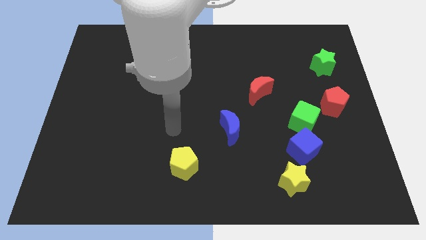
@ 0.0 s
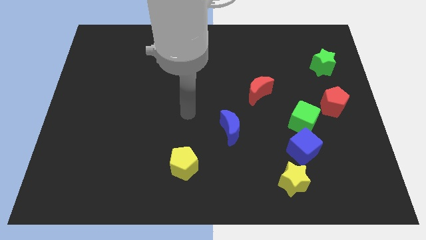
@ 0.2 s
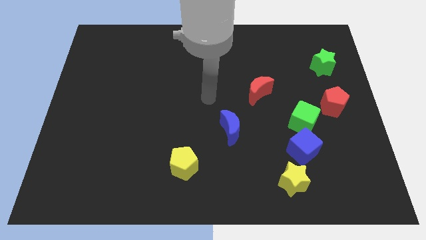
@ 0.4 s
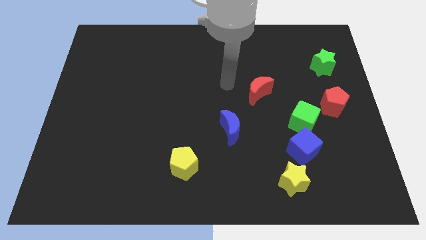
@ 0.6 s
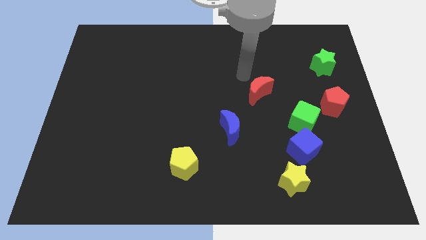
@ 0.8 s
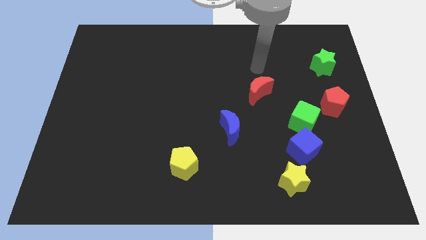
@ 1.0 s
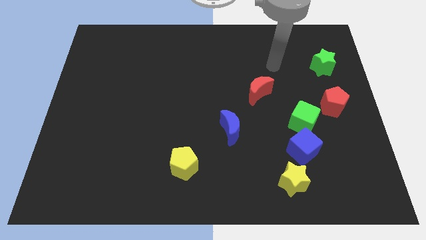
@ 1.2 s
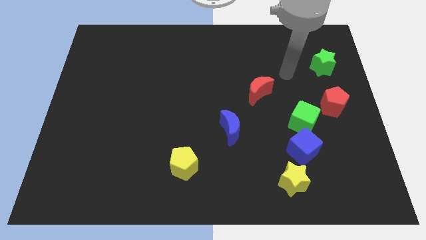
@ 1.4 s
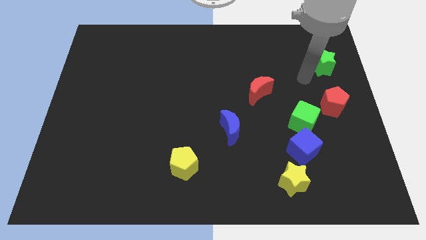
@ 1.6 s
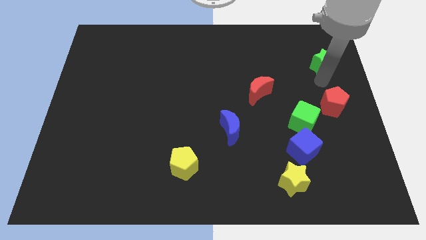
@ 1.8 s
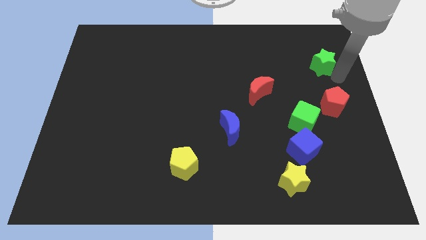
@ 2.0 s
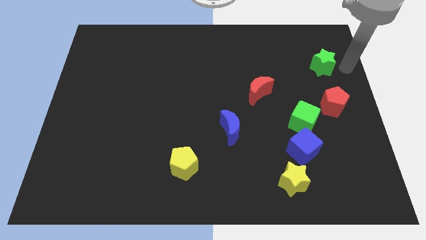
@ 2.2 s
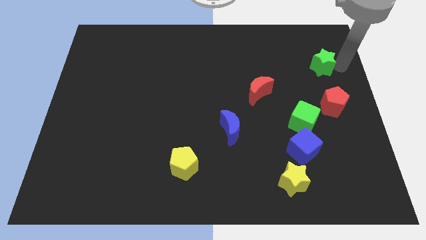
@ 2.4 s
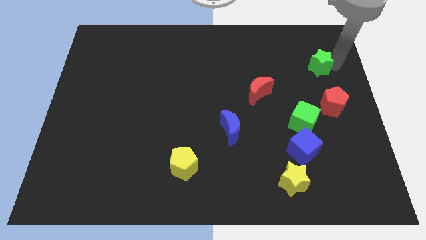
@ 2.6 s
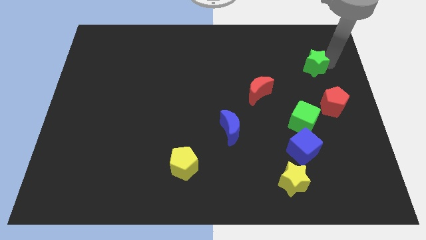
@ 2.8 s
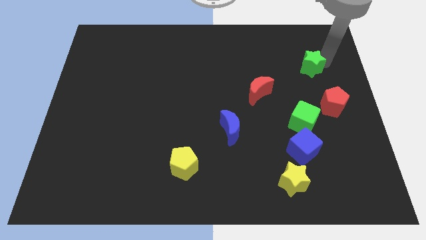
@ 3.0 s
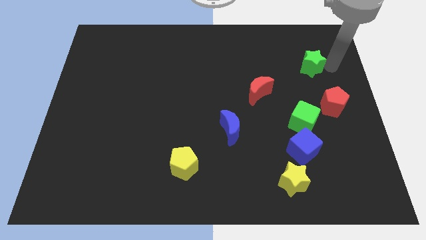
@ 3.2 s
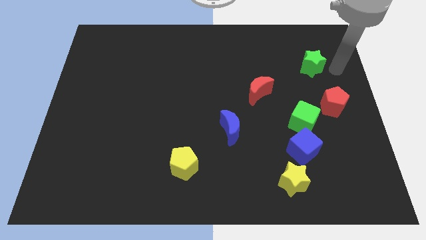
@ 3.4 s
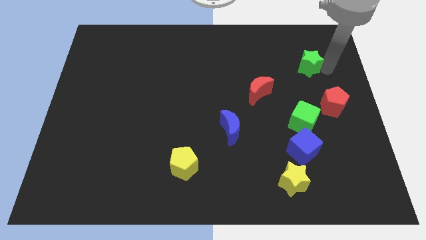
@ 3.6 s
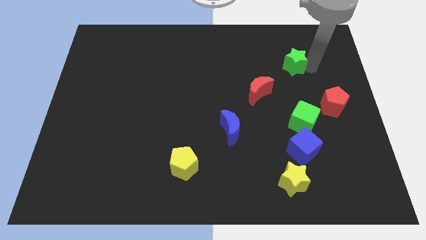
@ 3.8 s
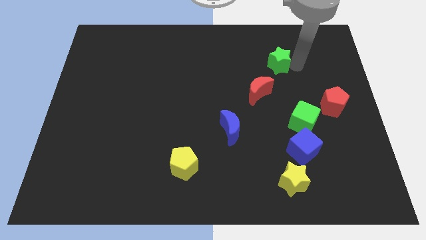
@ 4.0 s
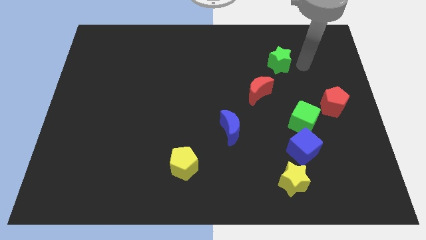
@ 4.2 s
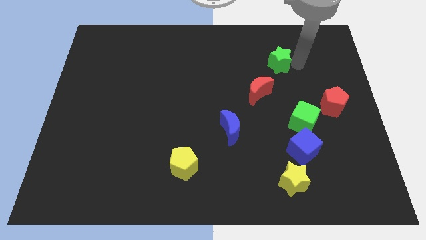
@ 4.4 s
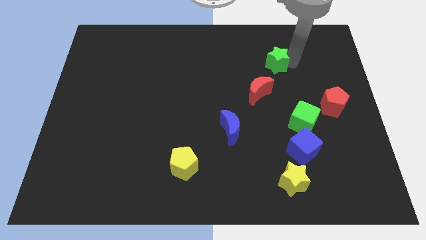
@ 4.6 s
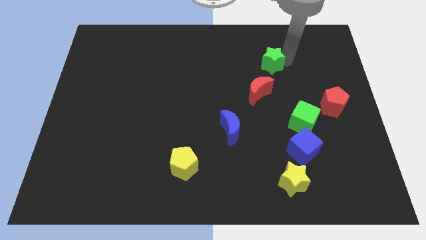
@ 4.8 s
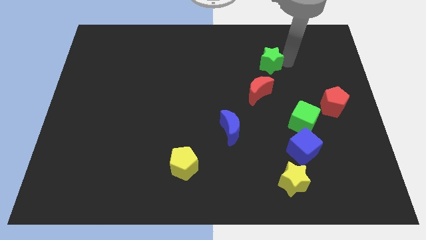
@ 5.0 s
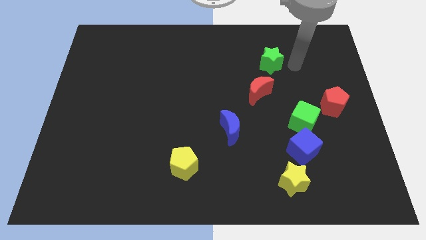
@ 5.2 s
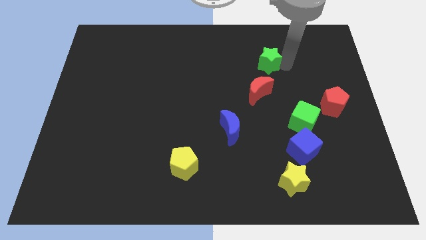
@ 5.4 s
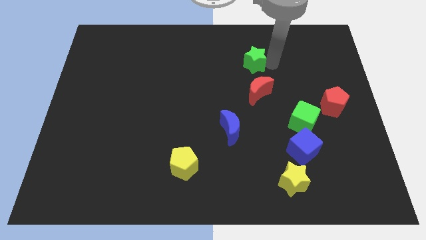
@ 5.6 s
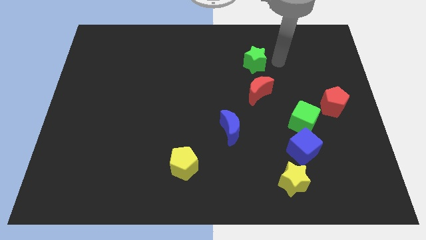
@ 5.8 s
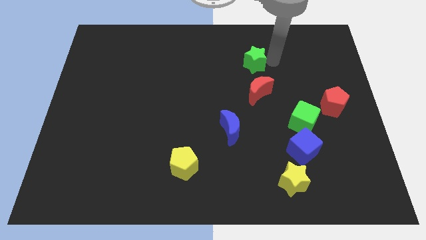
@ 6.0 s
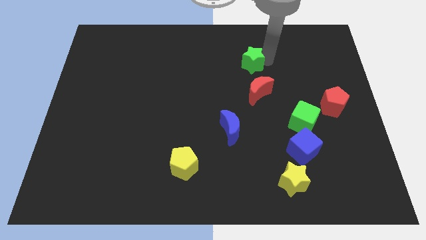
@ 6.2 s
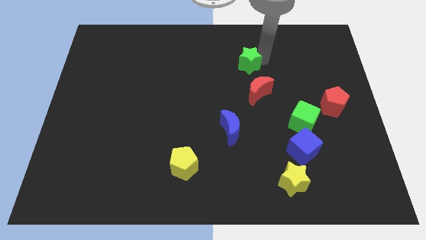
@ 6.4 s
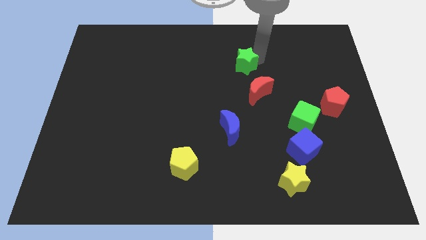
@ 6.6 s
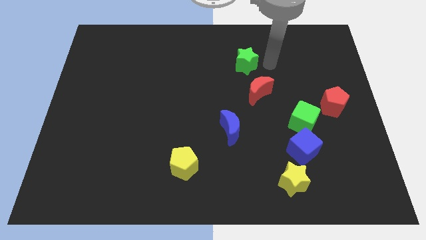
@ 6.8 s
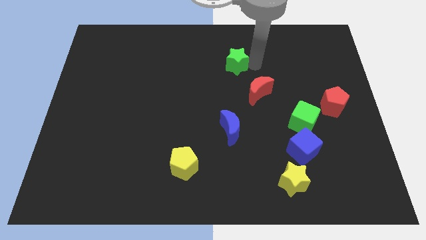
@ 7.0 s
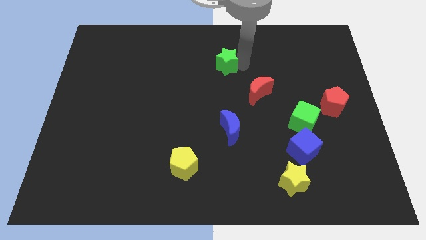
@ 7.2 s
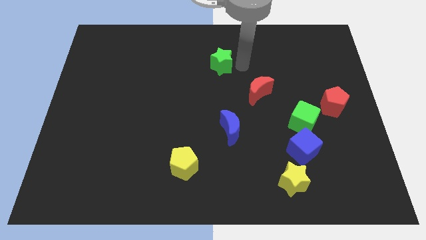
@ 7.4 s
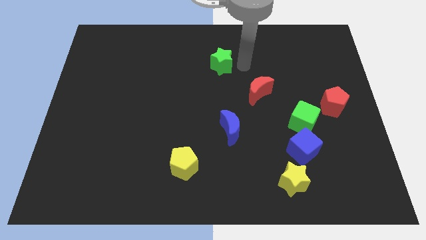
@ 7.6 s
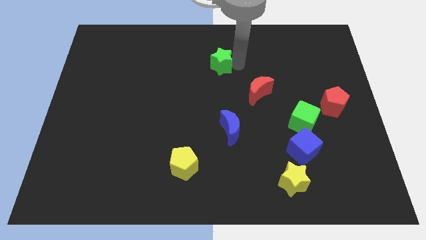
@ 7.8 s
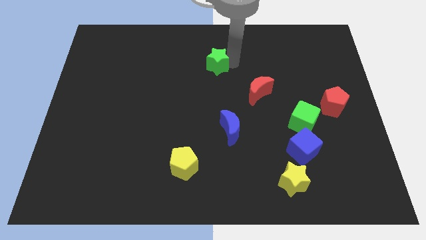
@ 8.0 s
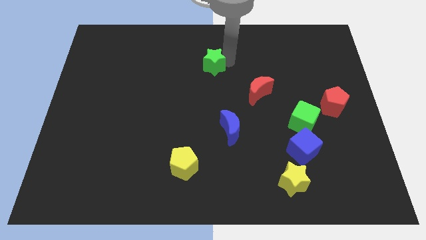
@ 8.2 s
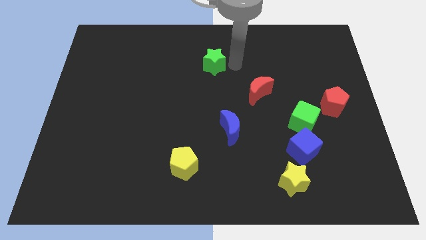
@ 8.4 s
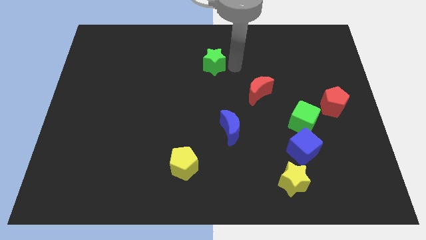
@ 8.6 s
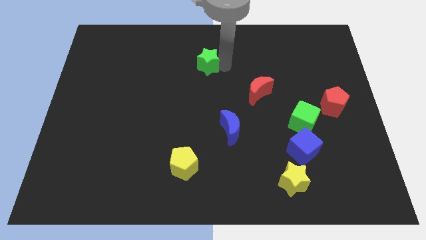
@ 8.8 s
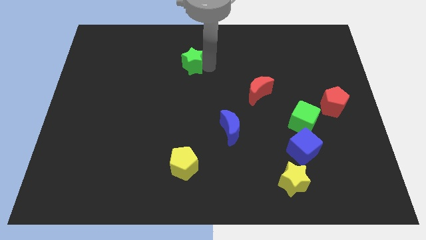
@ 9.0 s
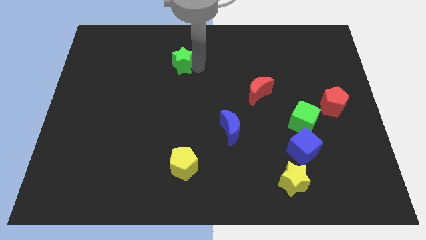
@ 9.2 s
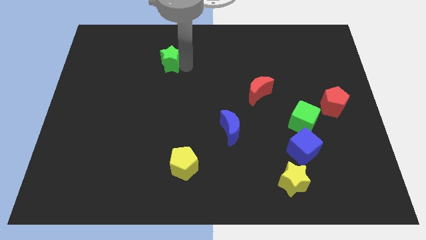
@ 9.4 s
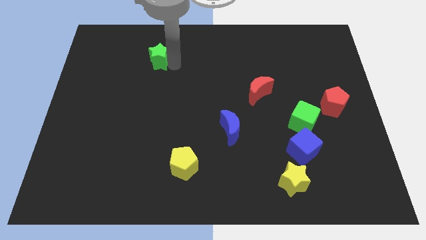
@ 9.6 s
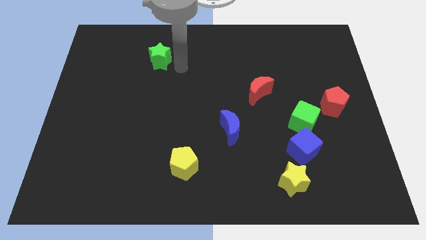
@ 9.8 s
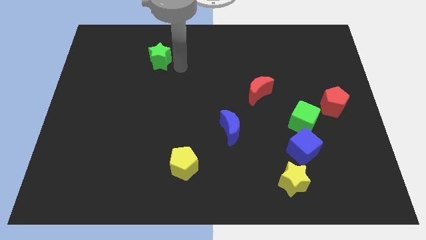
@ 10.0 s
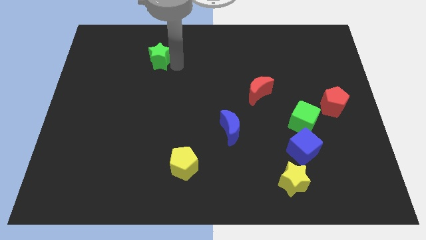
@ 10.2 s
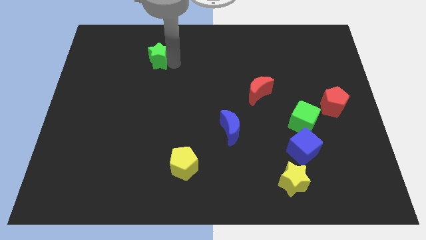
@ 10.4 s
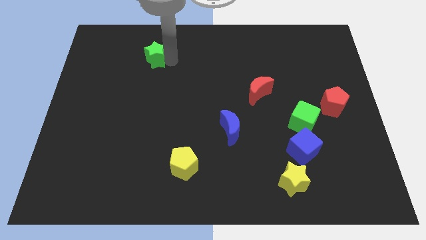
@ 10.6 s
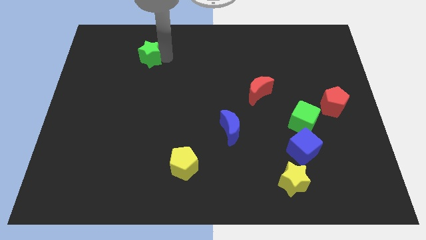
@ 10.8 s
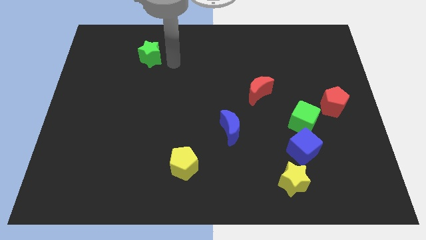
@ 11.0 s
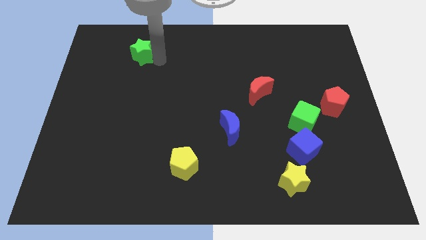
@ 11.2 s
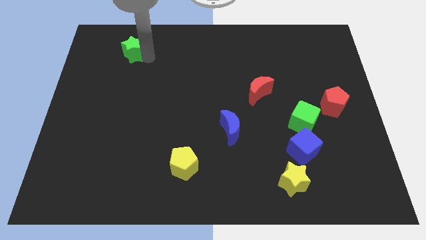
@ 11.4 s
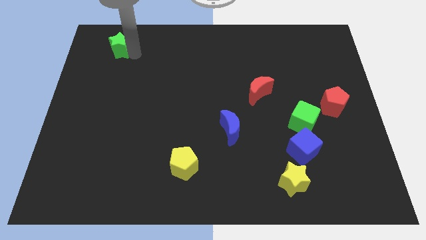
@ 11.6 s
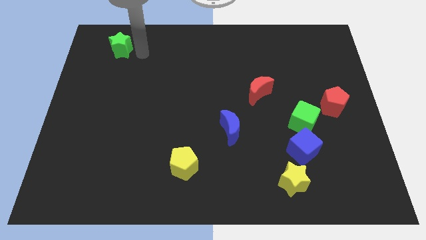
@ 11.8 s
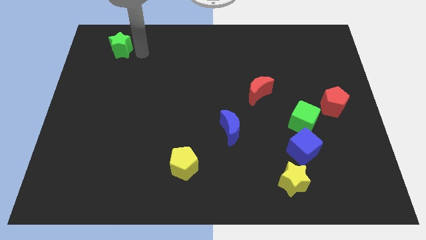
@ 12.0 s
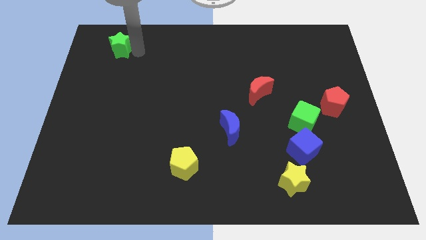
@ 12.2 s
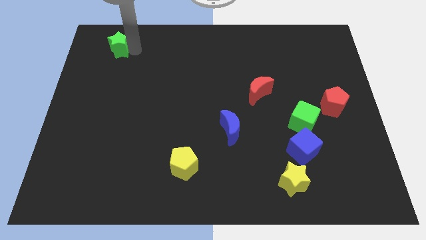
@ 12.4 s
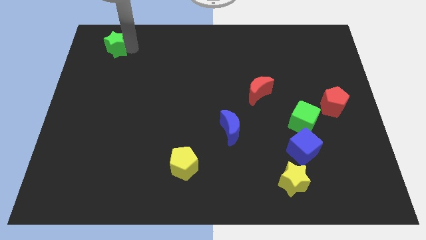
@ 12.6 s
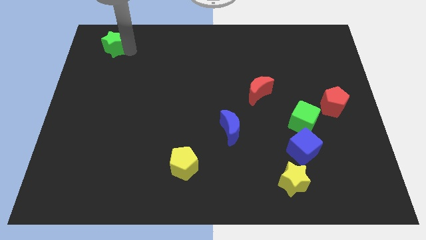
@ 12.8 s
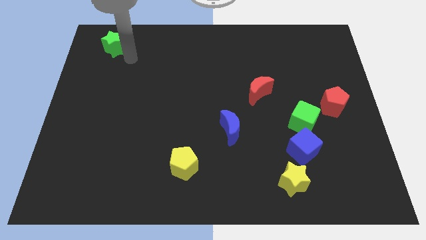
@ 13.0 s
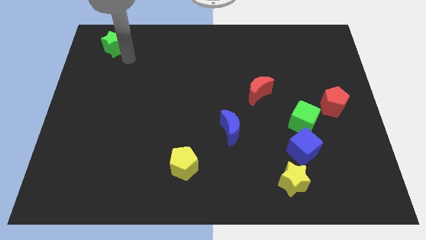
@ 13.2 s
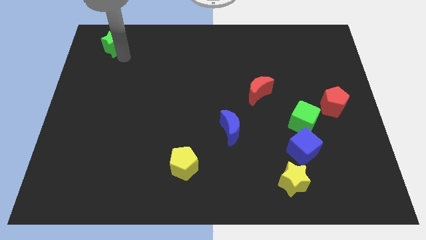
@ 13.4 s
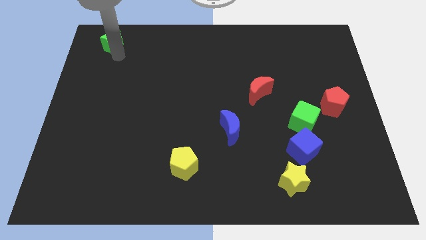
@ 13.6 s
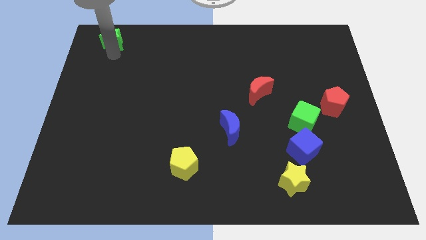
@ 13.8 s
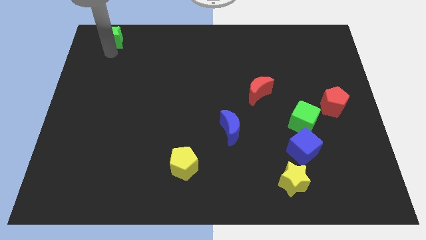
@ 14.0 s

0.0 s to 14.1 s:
put the green star to the top left of the board
